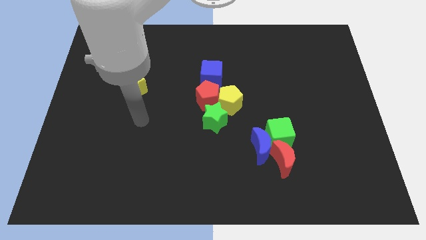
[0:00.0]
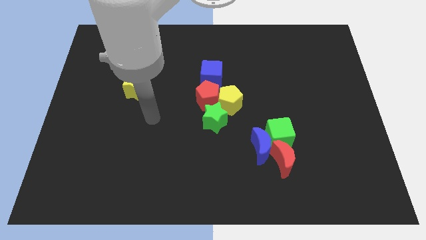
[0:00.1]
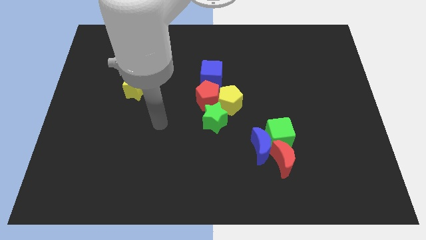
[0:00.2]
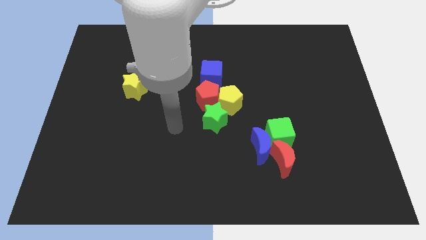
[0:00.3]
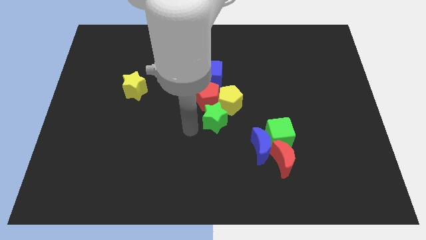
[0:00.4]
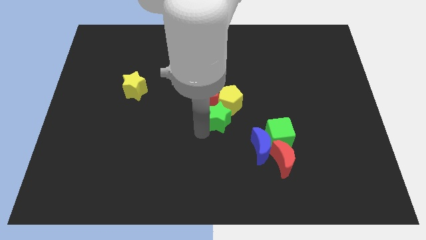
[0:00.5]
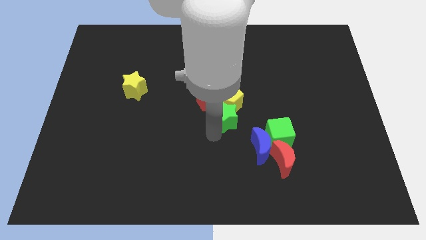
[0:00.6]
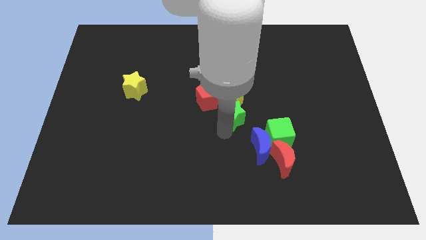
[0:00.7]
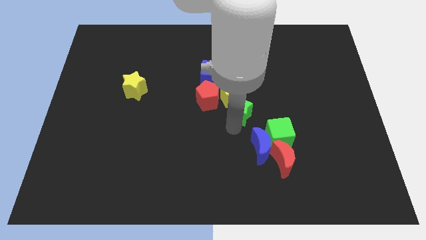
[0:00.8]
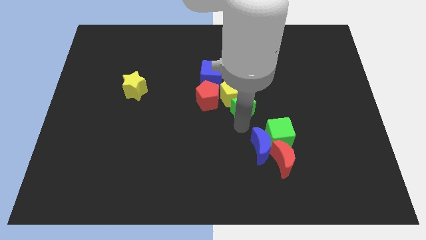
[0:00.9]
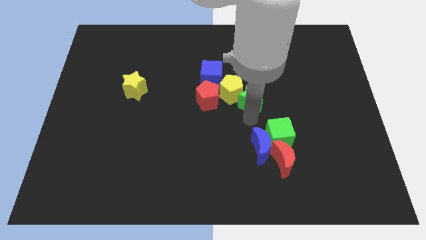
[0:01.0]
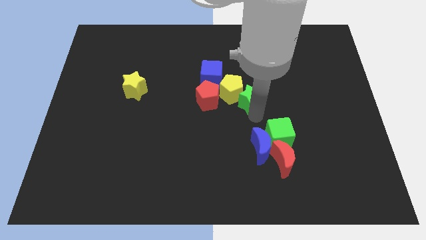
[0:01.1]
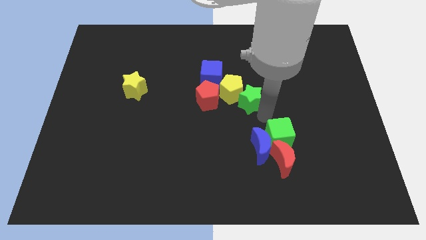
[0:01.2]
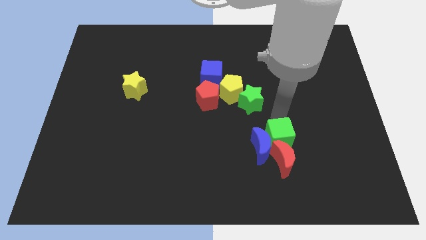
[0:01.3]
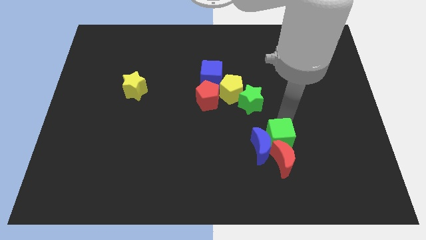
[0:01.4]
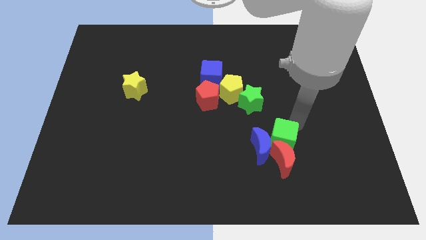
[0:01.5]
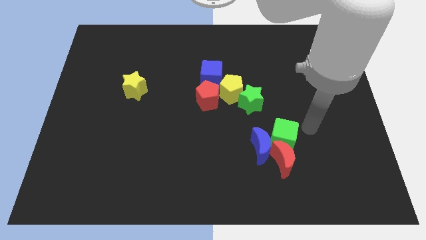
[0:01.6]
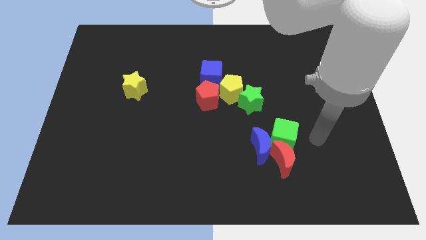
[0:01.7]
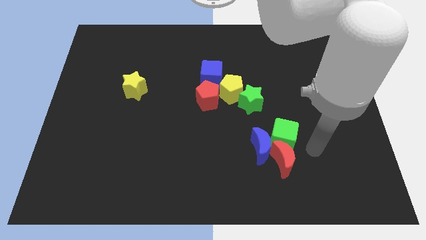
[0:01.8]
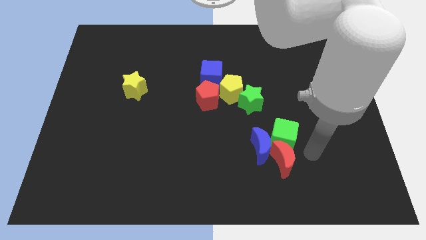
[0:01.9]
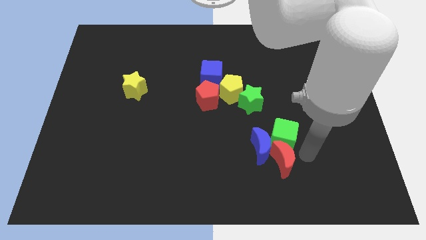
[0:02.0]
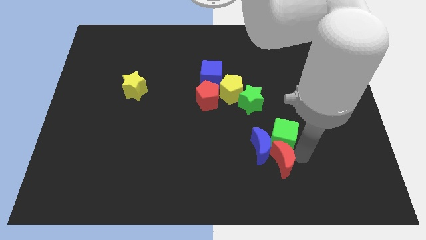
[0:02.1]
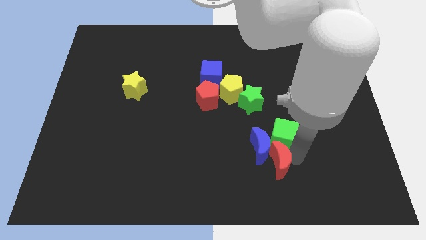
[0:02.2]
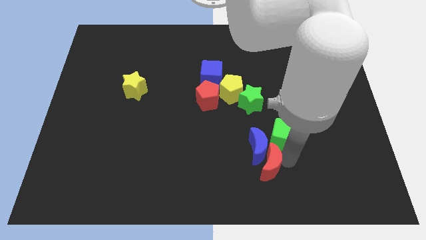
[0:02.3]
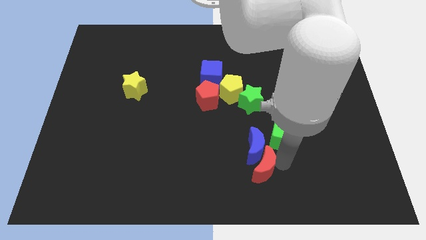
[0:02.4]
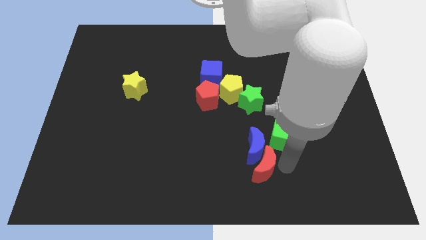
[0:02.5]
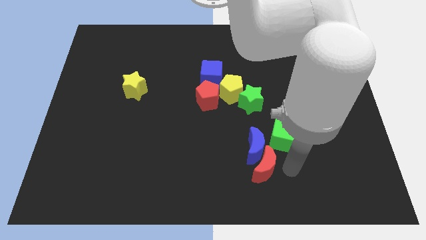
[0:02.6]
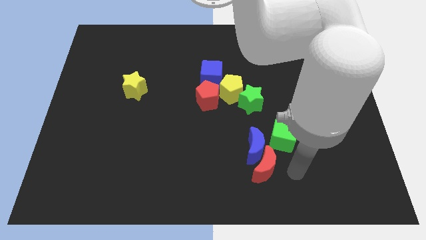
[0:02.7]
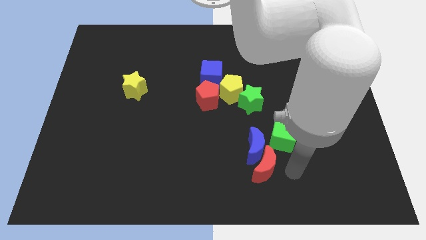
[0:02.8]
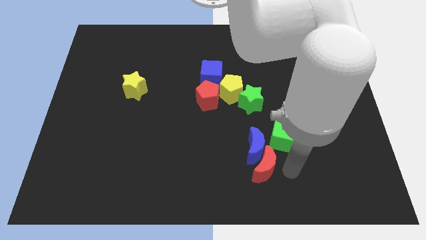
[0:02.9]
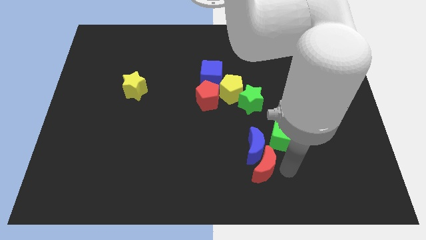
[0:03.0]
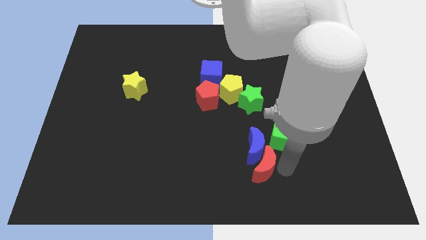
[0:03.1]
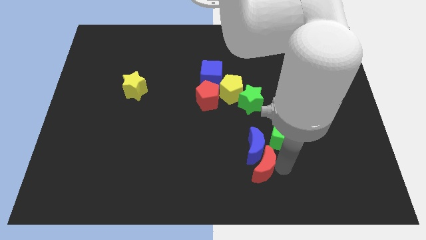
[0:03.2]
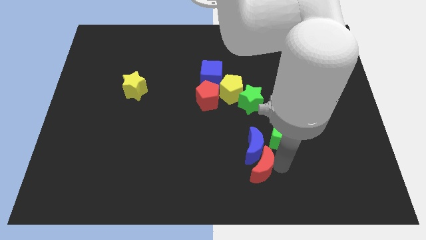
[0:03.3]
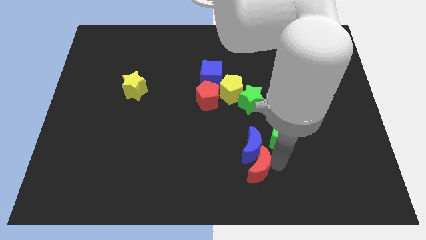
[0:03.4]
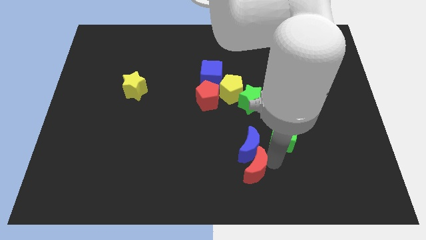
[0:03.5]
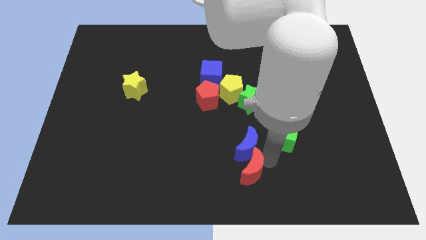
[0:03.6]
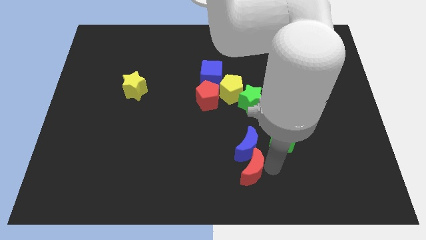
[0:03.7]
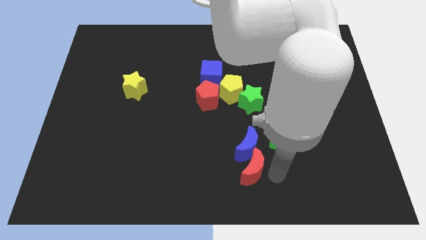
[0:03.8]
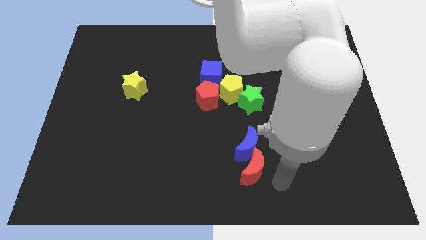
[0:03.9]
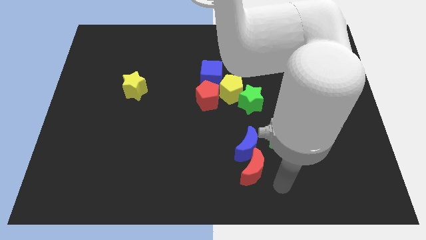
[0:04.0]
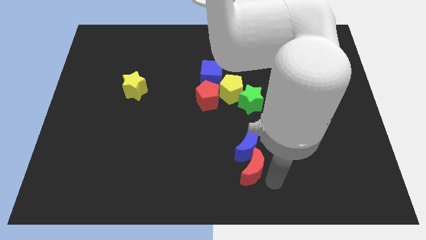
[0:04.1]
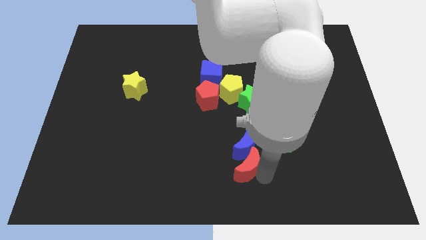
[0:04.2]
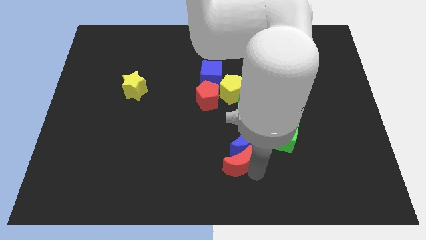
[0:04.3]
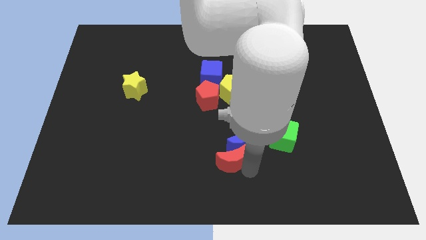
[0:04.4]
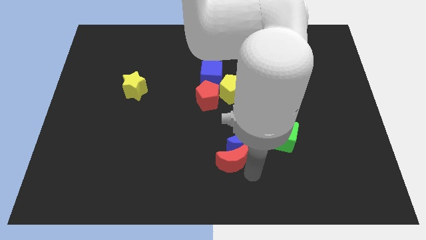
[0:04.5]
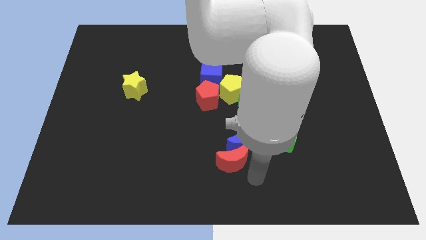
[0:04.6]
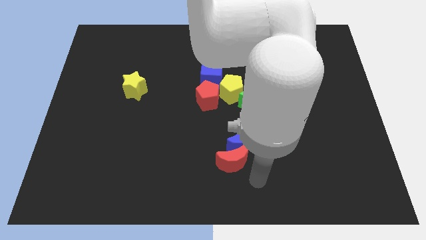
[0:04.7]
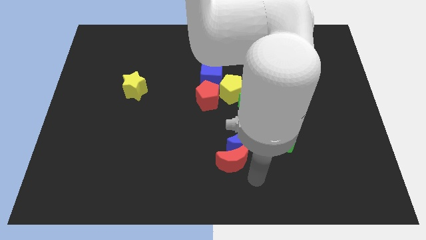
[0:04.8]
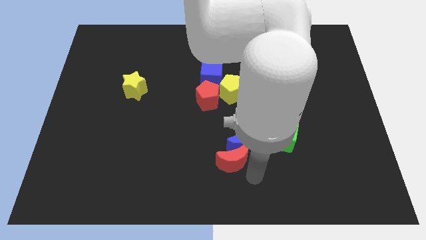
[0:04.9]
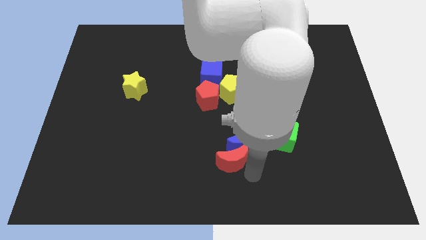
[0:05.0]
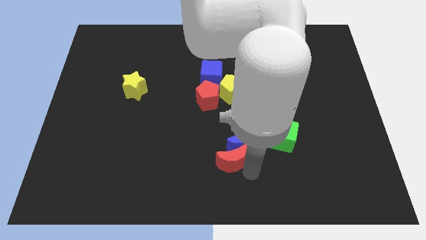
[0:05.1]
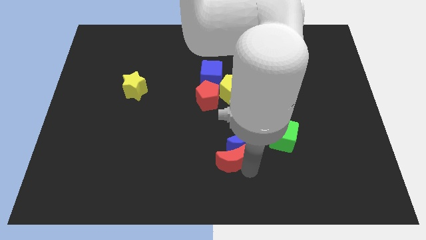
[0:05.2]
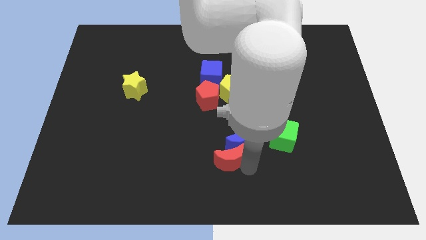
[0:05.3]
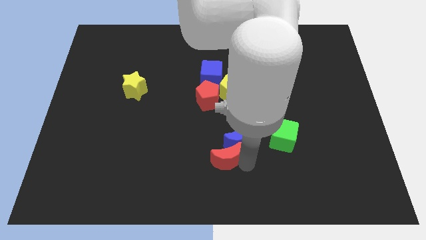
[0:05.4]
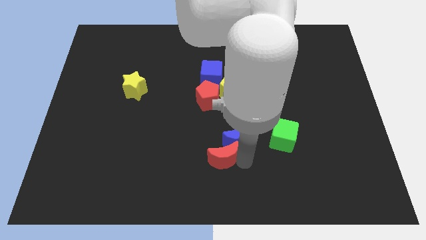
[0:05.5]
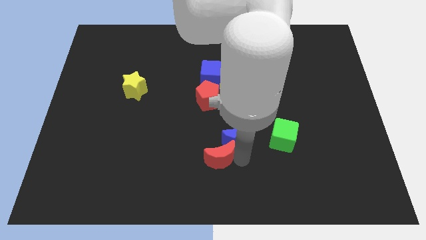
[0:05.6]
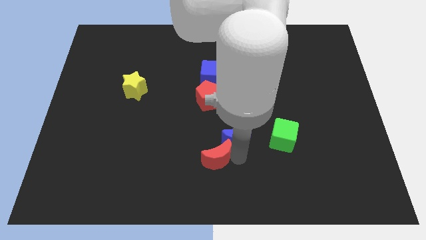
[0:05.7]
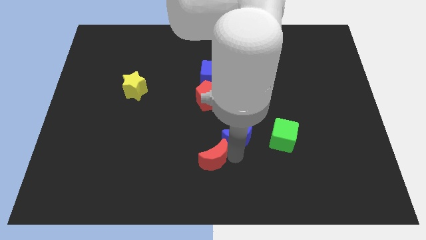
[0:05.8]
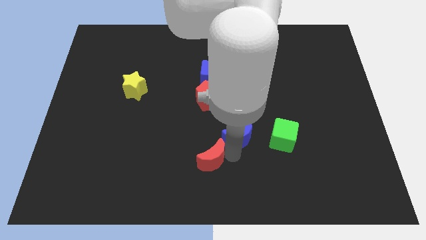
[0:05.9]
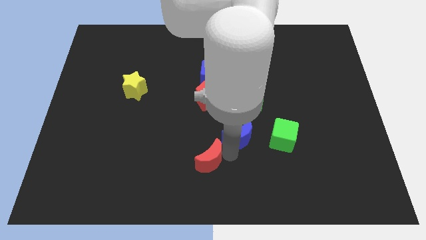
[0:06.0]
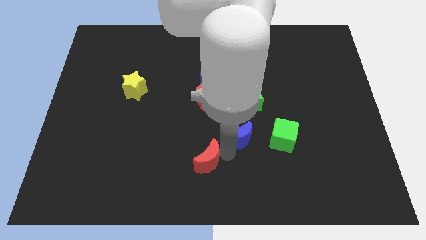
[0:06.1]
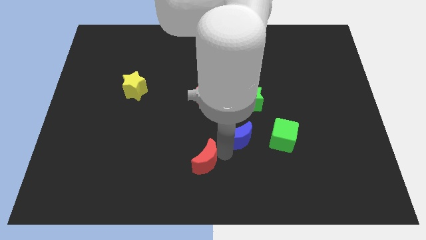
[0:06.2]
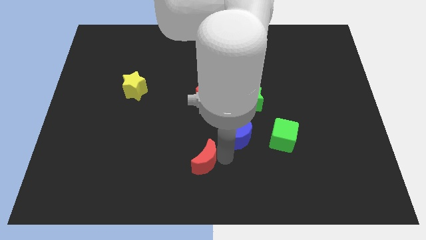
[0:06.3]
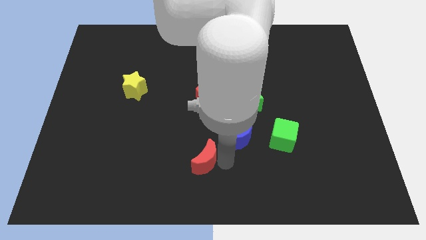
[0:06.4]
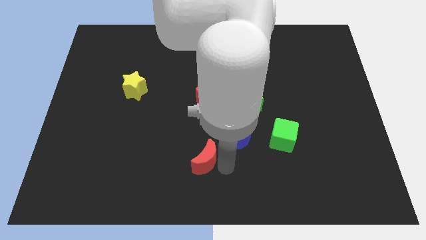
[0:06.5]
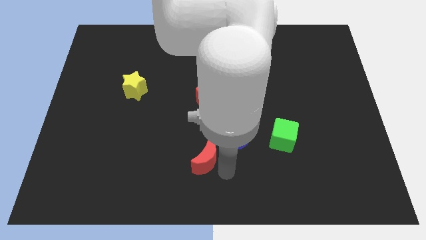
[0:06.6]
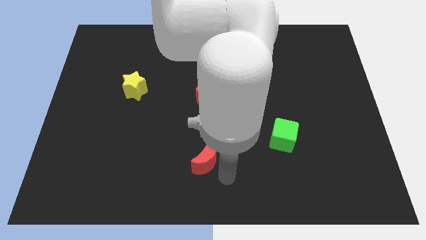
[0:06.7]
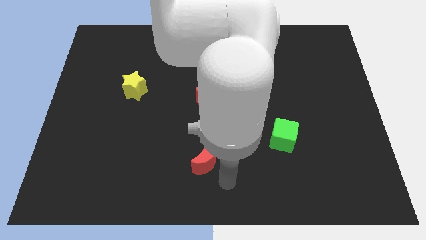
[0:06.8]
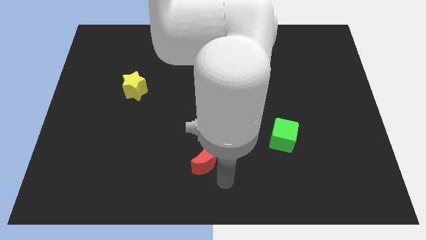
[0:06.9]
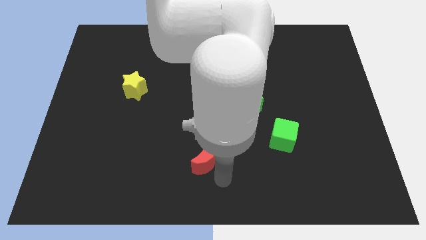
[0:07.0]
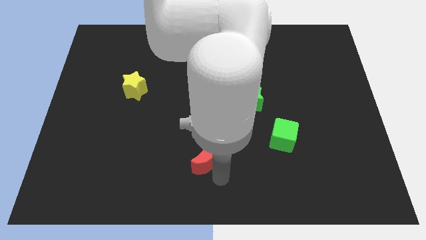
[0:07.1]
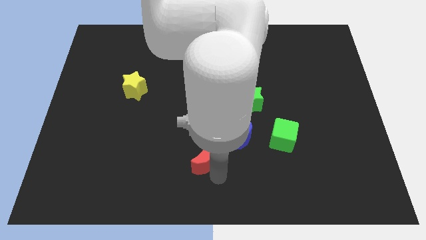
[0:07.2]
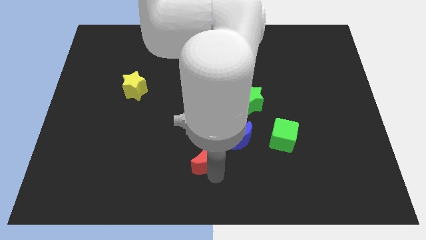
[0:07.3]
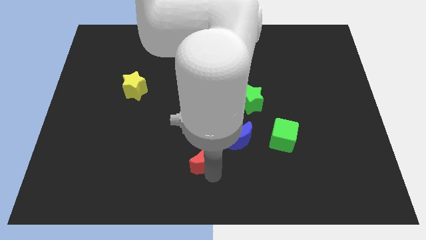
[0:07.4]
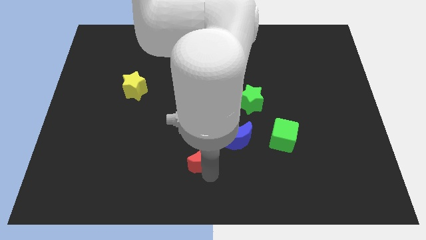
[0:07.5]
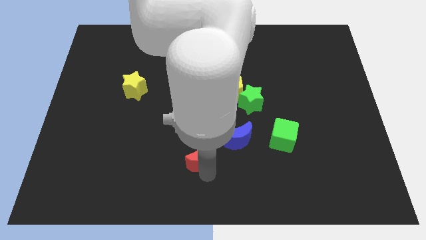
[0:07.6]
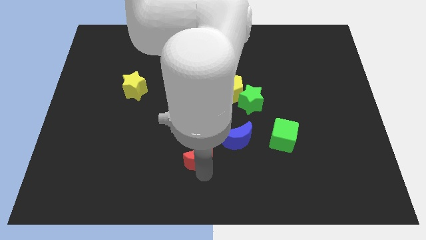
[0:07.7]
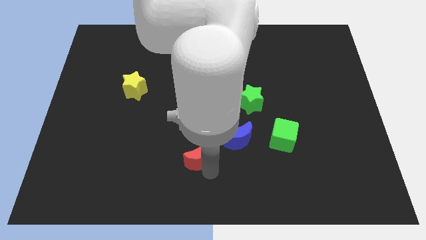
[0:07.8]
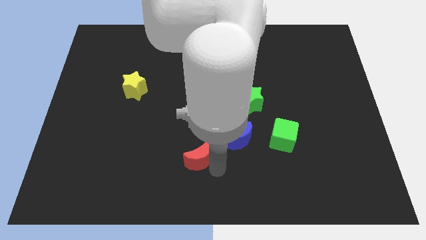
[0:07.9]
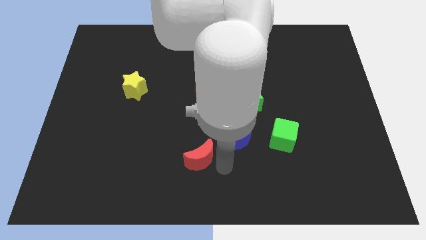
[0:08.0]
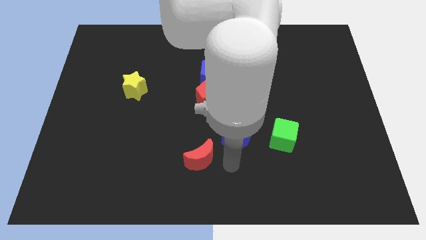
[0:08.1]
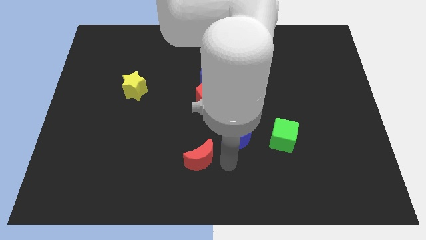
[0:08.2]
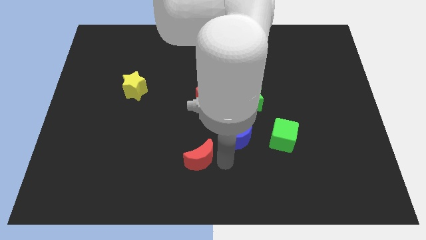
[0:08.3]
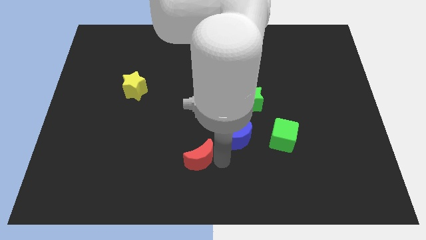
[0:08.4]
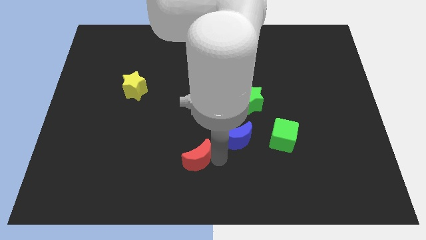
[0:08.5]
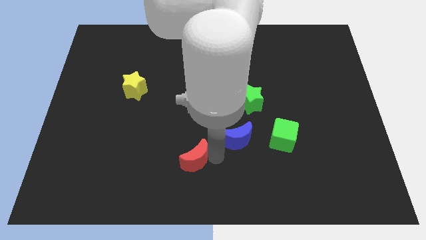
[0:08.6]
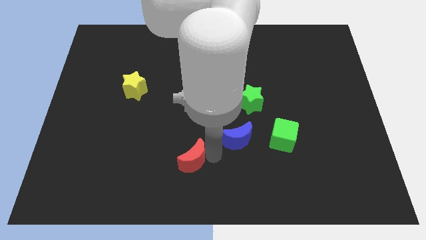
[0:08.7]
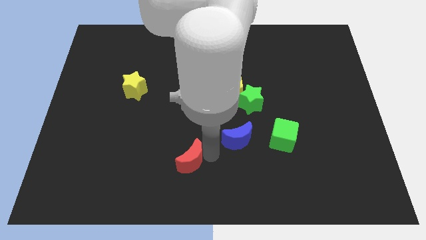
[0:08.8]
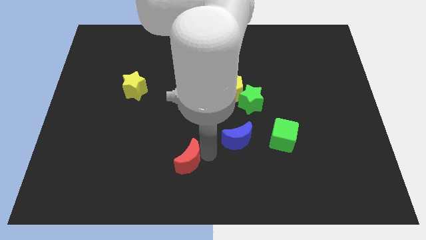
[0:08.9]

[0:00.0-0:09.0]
push the red moon to the left
